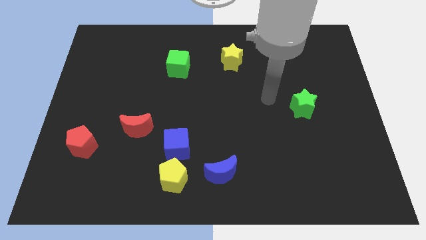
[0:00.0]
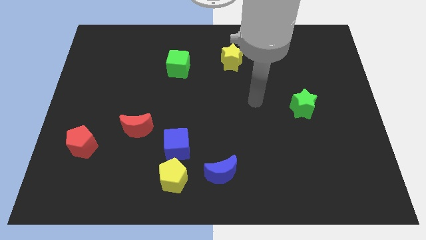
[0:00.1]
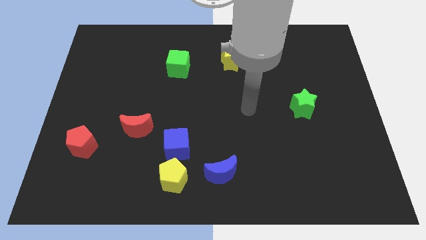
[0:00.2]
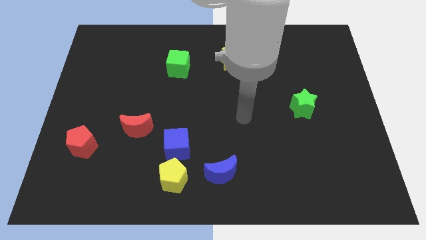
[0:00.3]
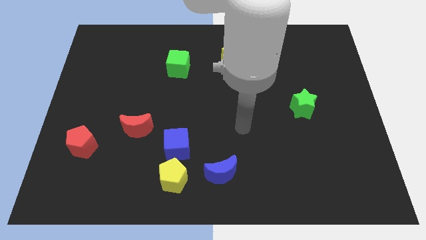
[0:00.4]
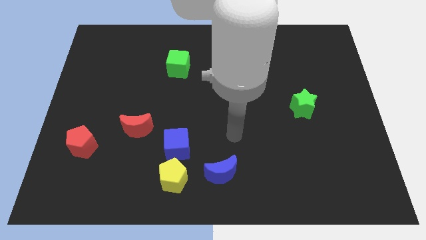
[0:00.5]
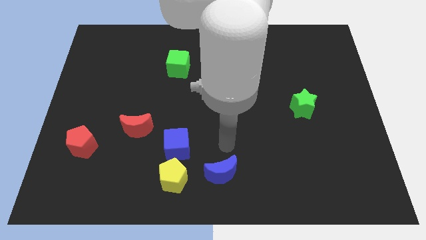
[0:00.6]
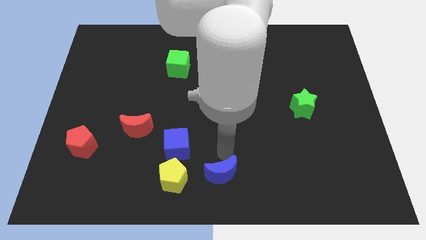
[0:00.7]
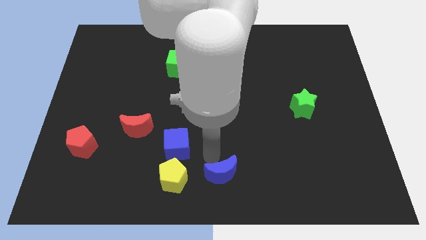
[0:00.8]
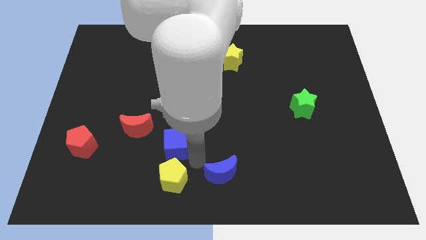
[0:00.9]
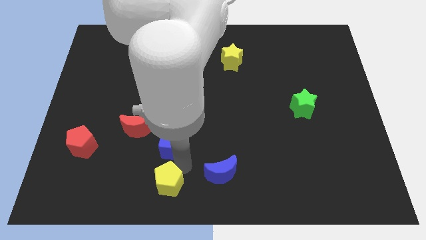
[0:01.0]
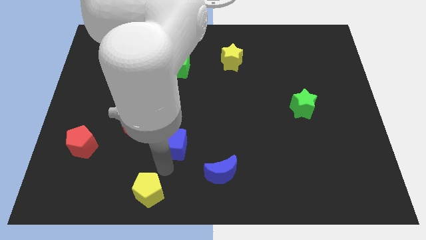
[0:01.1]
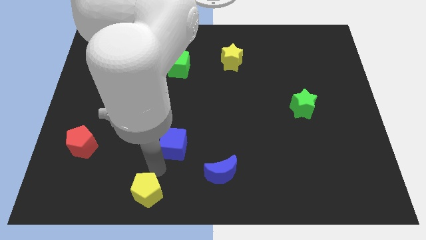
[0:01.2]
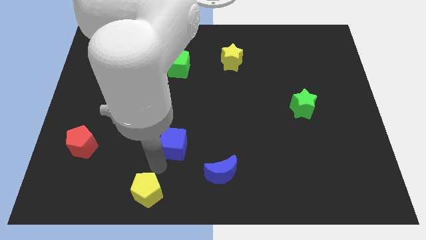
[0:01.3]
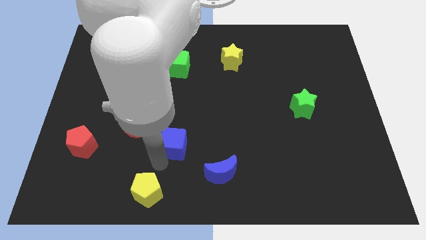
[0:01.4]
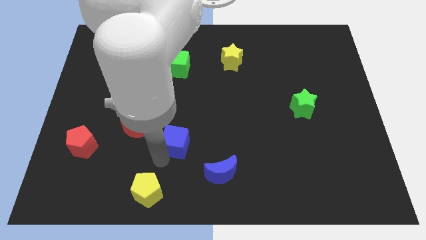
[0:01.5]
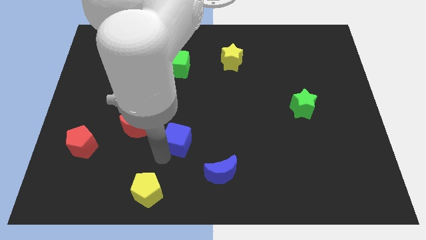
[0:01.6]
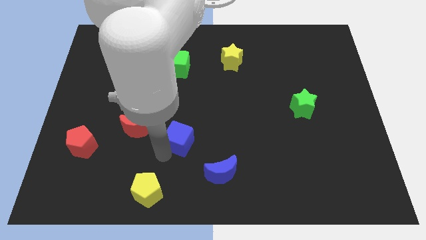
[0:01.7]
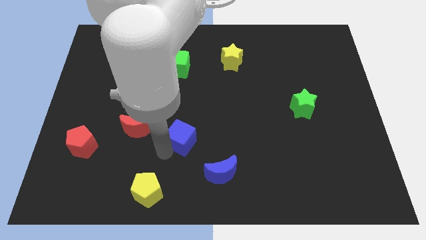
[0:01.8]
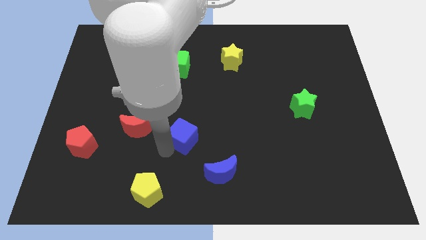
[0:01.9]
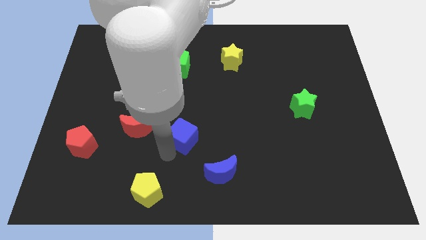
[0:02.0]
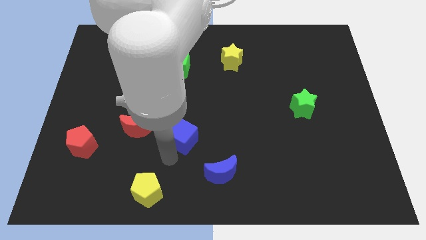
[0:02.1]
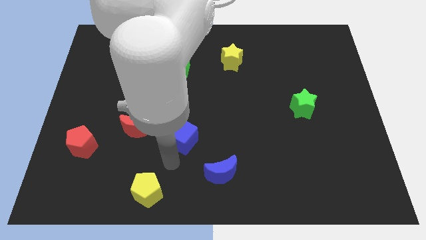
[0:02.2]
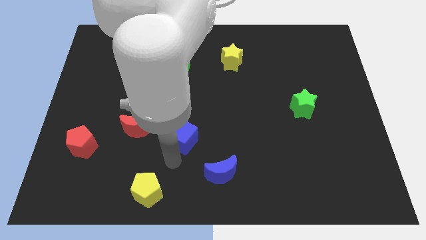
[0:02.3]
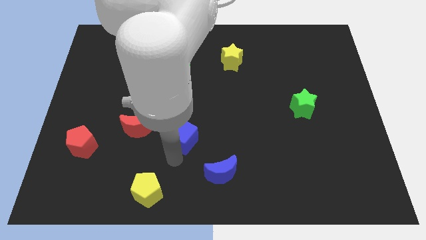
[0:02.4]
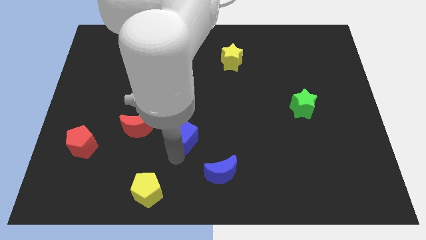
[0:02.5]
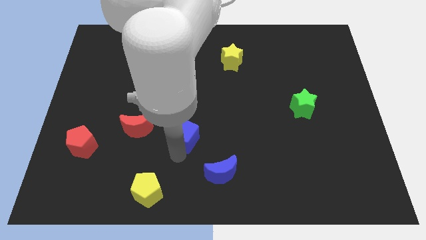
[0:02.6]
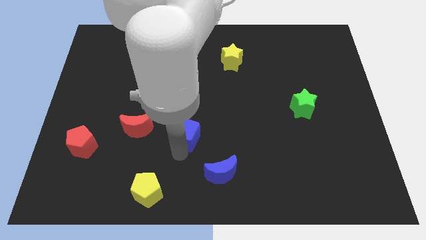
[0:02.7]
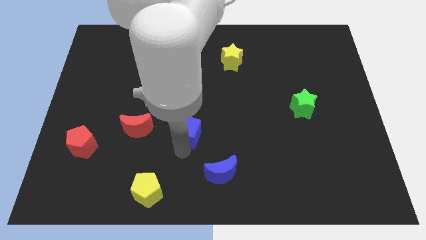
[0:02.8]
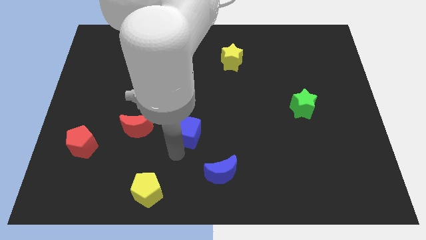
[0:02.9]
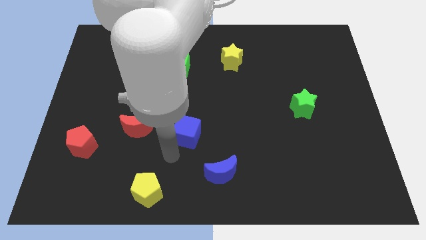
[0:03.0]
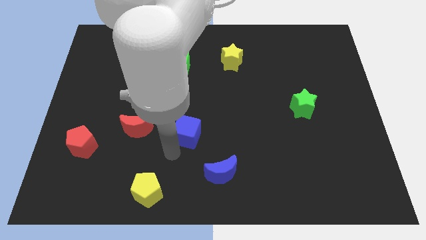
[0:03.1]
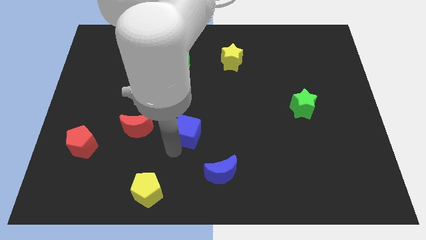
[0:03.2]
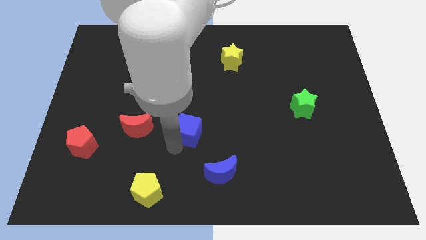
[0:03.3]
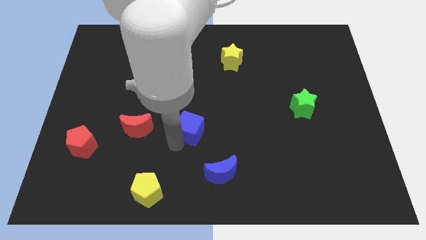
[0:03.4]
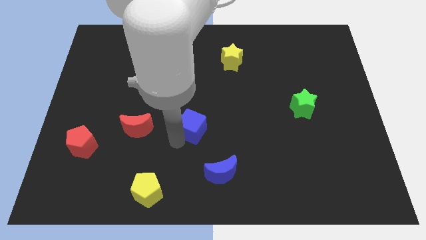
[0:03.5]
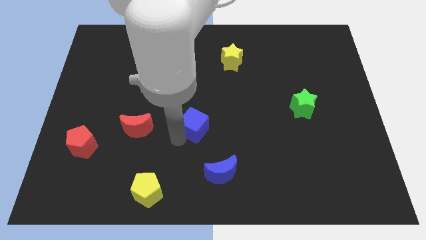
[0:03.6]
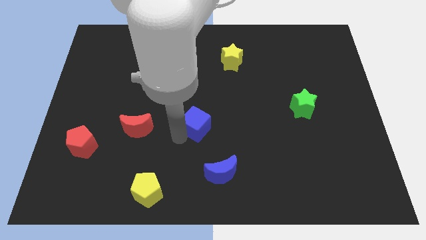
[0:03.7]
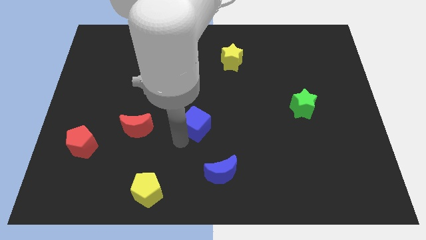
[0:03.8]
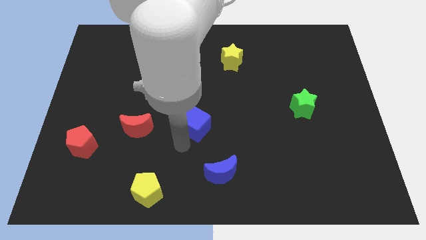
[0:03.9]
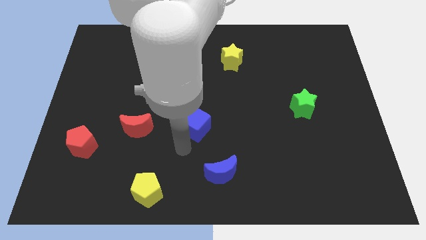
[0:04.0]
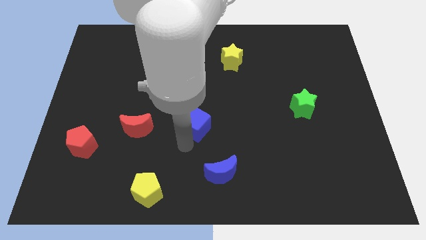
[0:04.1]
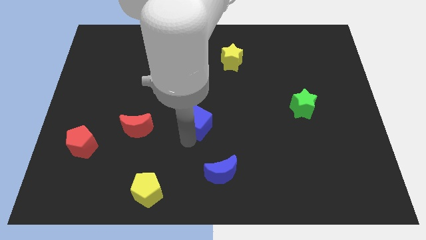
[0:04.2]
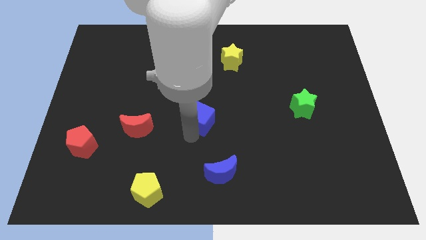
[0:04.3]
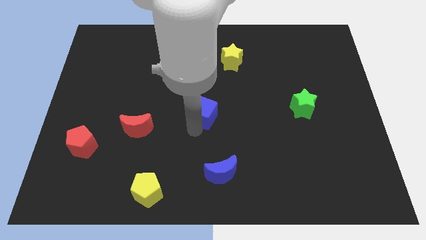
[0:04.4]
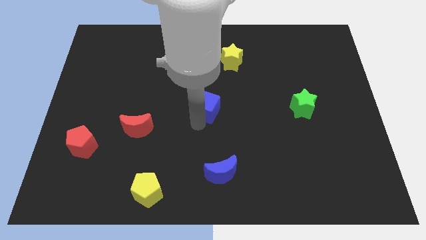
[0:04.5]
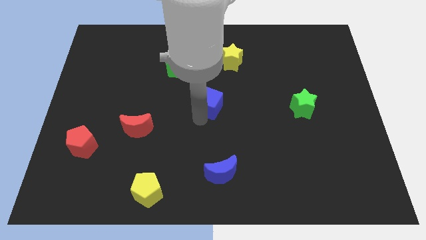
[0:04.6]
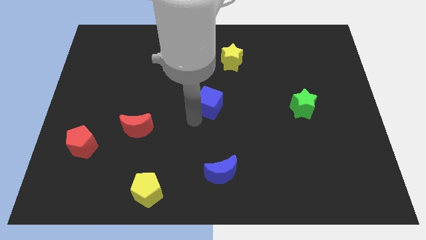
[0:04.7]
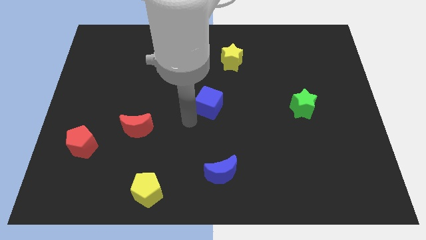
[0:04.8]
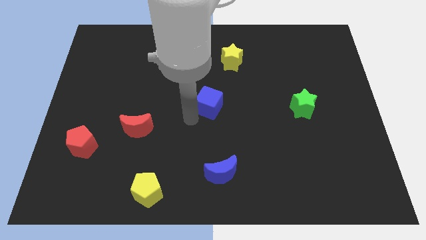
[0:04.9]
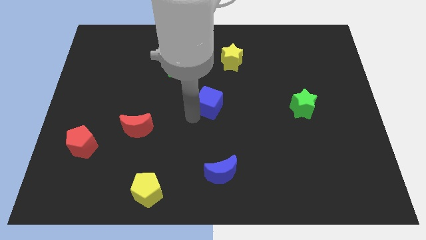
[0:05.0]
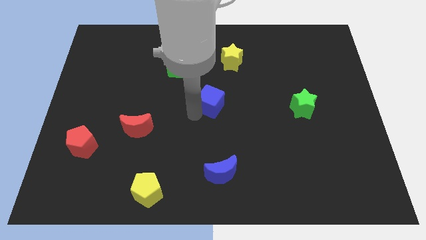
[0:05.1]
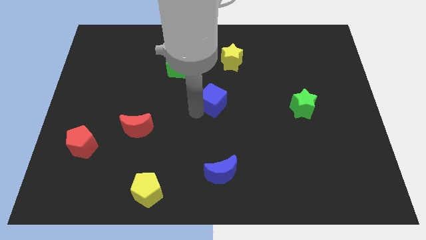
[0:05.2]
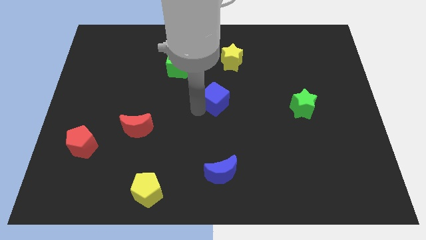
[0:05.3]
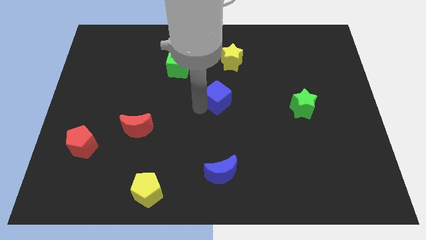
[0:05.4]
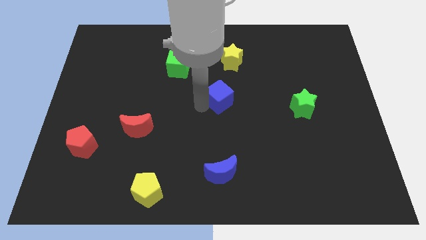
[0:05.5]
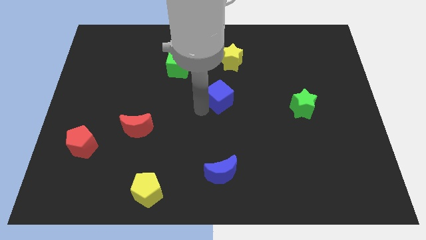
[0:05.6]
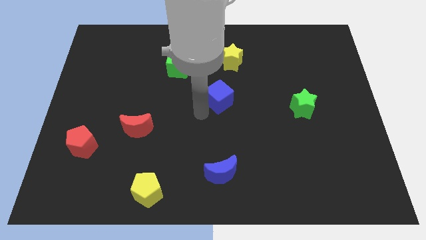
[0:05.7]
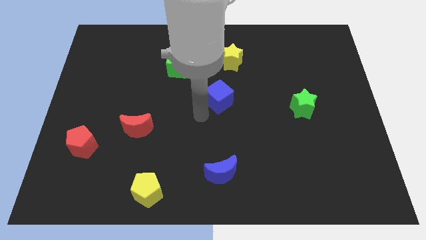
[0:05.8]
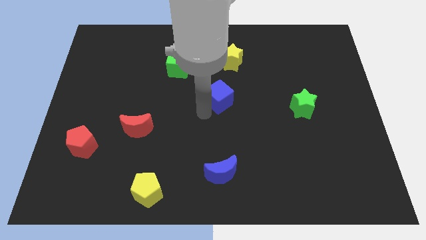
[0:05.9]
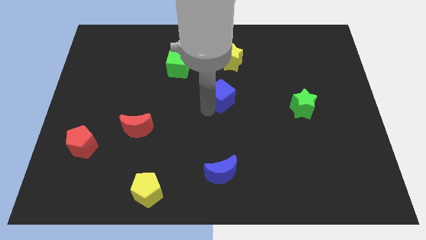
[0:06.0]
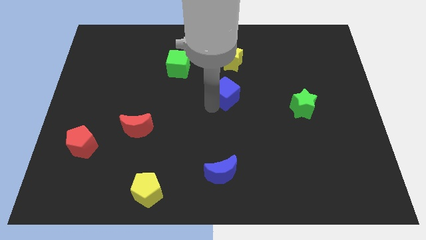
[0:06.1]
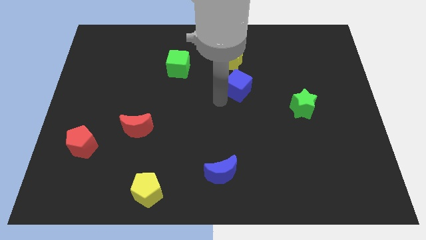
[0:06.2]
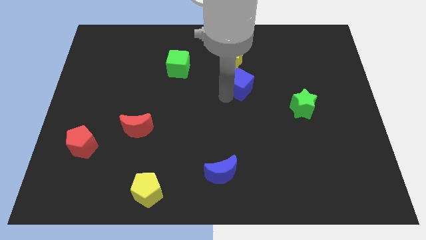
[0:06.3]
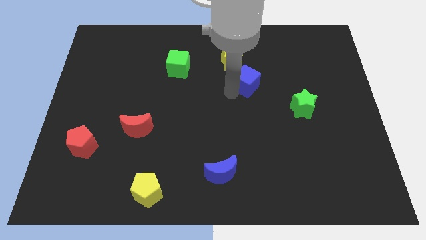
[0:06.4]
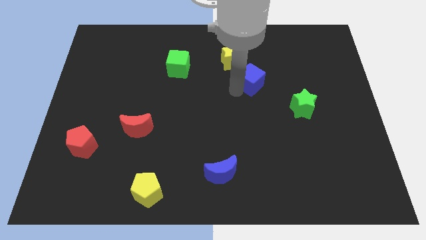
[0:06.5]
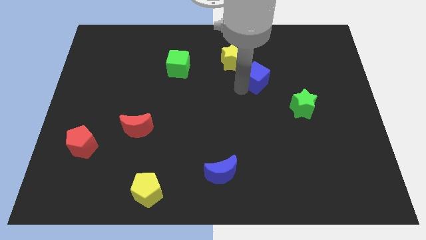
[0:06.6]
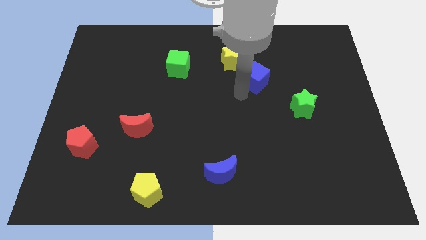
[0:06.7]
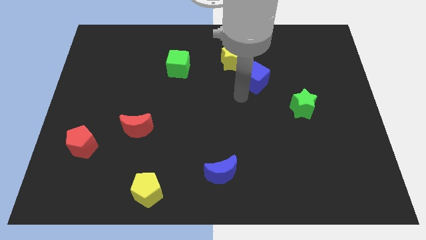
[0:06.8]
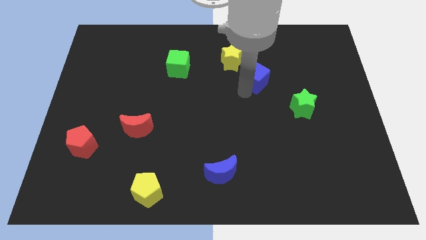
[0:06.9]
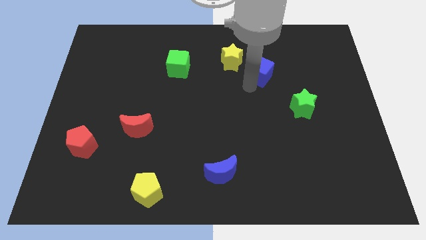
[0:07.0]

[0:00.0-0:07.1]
slide the blue cube to the right side of the yellow star
